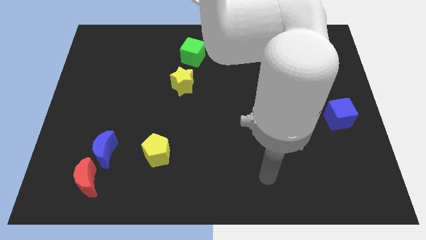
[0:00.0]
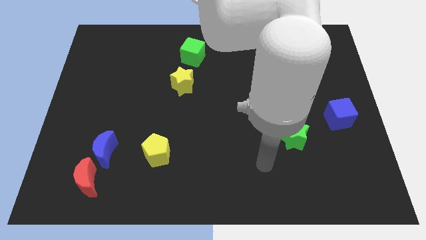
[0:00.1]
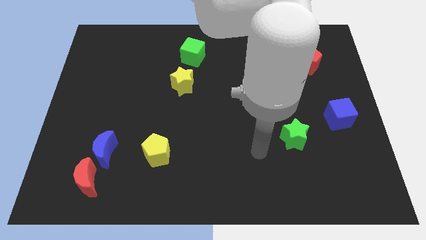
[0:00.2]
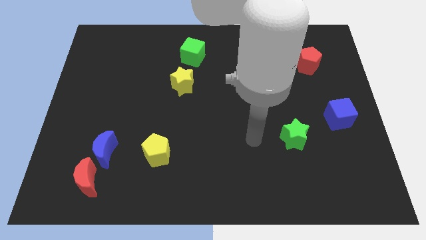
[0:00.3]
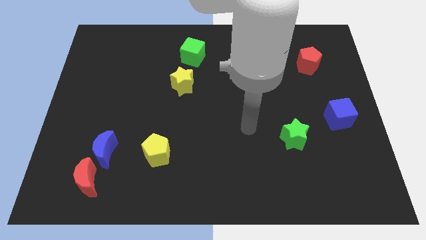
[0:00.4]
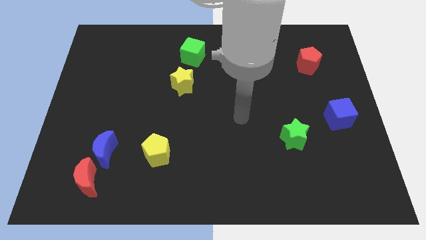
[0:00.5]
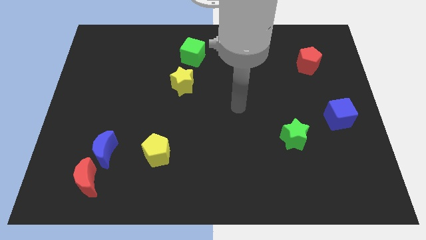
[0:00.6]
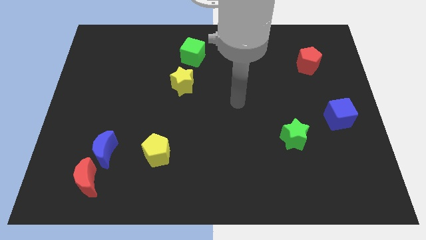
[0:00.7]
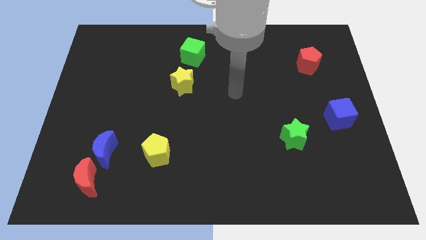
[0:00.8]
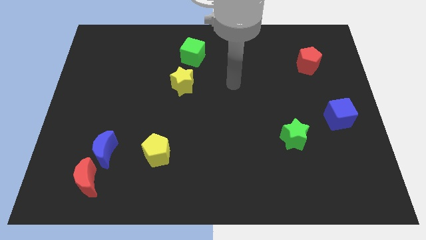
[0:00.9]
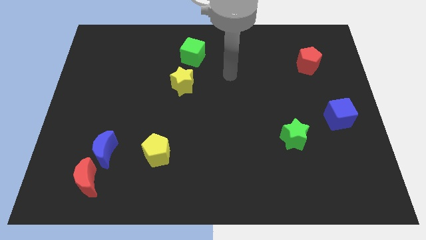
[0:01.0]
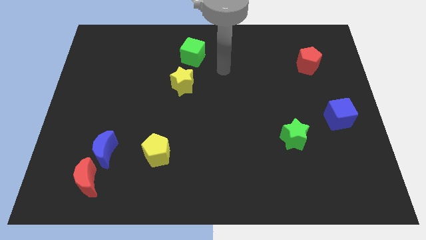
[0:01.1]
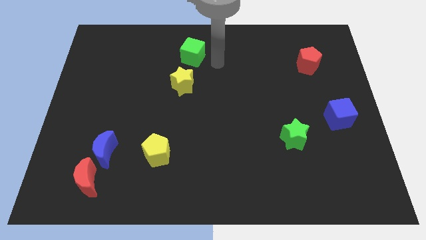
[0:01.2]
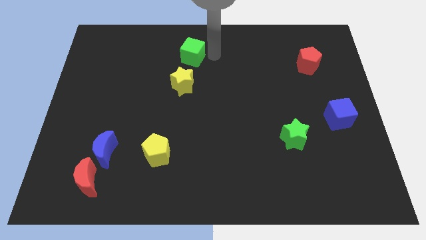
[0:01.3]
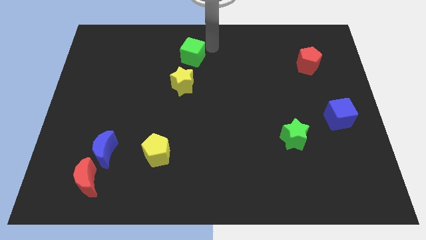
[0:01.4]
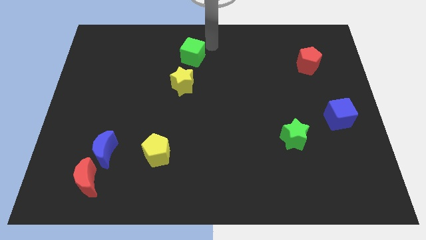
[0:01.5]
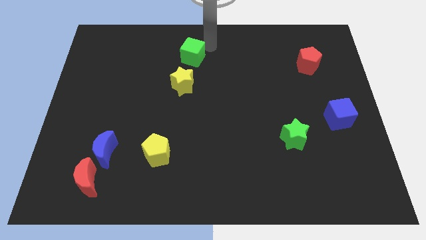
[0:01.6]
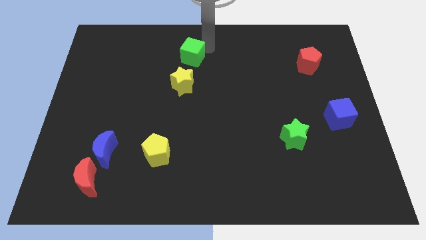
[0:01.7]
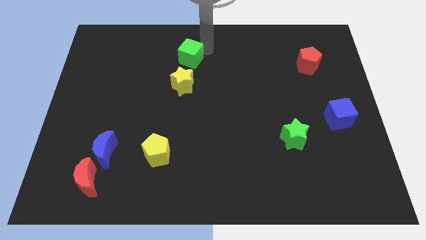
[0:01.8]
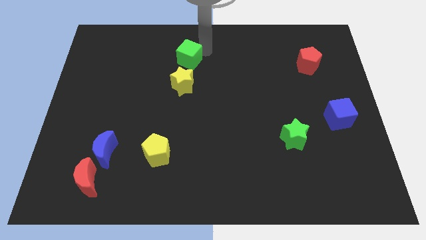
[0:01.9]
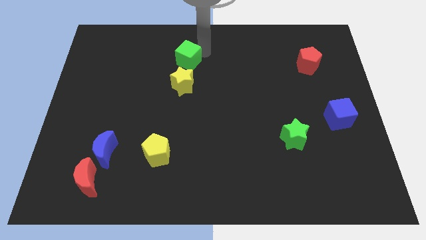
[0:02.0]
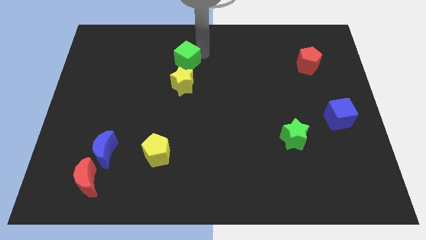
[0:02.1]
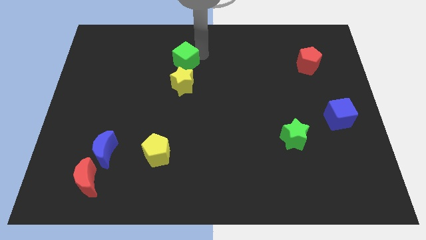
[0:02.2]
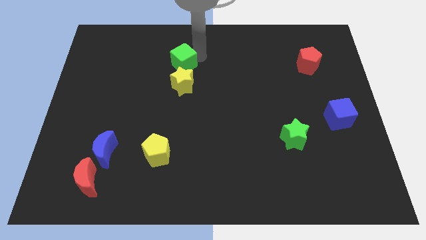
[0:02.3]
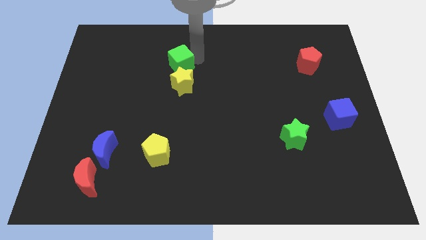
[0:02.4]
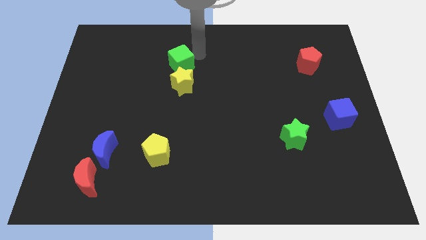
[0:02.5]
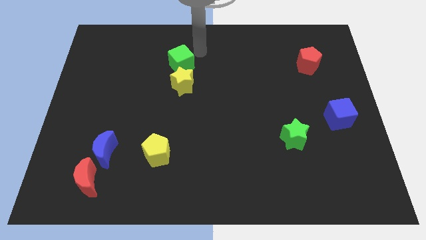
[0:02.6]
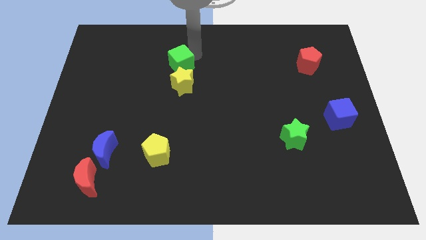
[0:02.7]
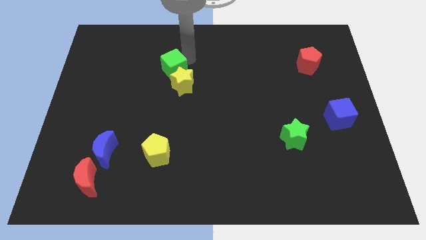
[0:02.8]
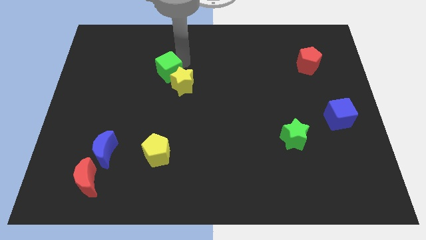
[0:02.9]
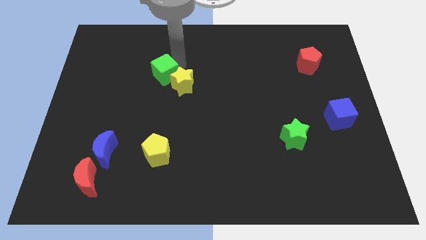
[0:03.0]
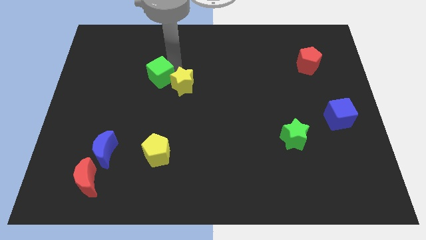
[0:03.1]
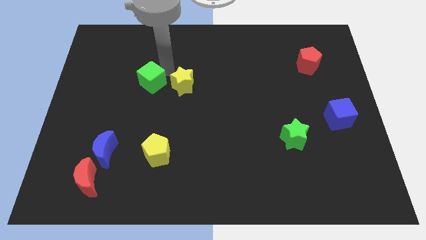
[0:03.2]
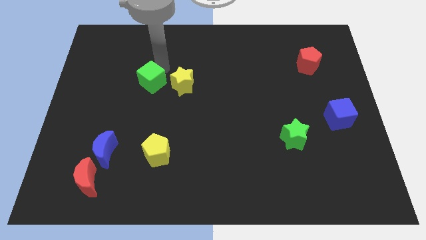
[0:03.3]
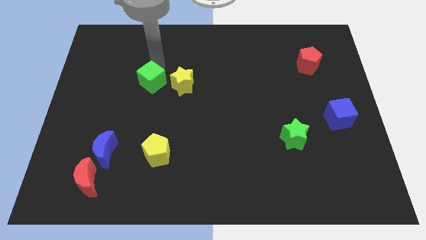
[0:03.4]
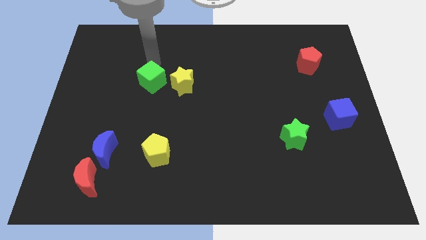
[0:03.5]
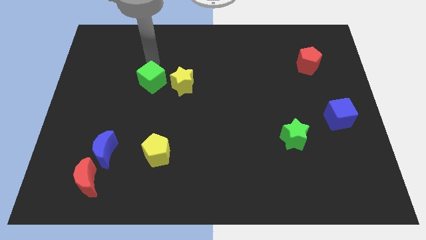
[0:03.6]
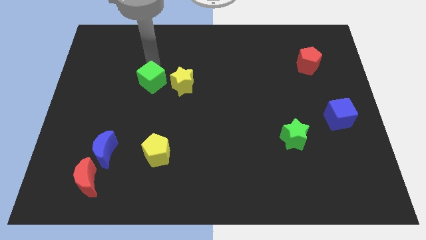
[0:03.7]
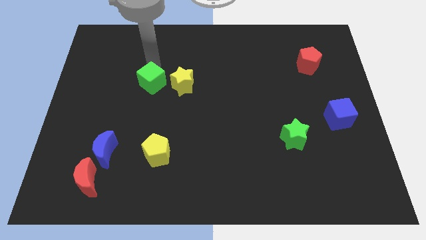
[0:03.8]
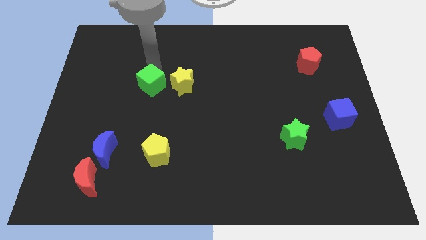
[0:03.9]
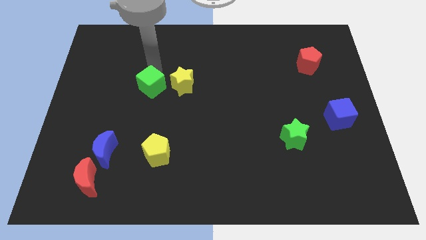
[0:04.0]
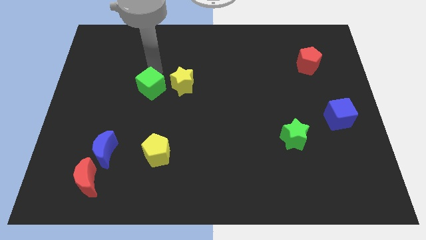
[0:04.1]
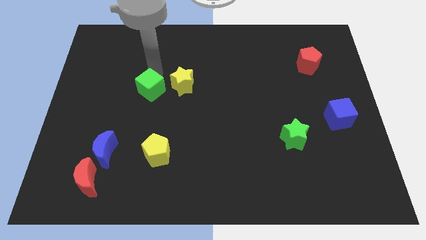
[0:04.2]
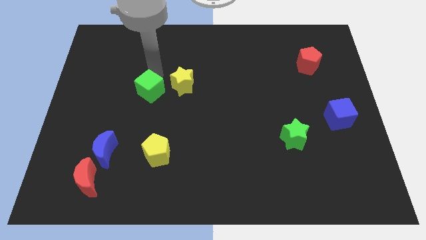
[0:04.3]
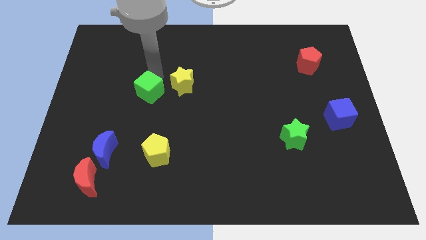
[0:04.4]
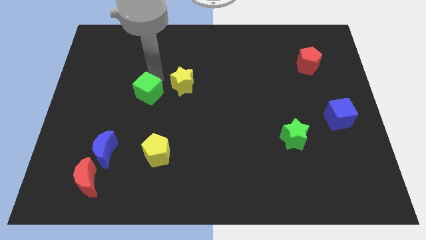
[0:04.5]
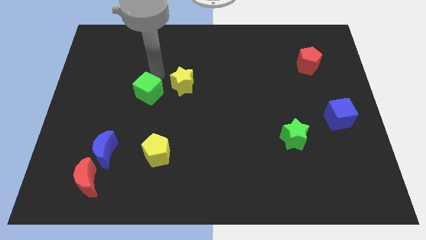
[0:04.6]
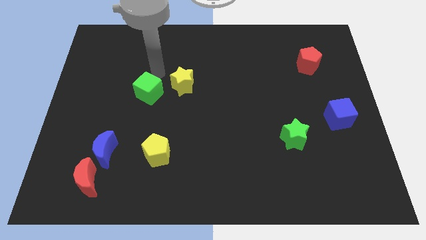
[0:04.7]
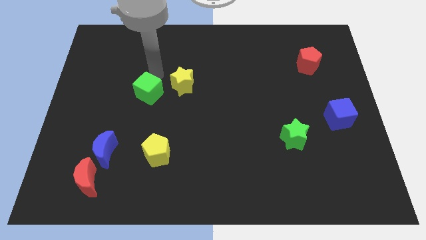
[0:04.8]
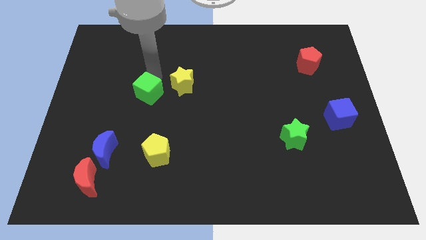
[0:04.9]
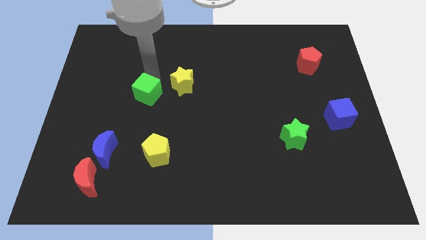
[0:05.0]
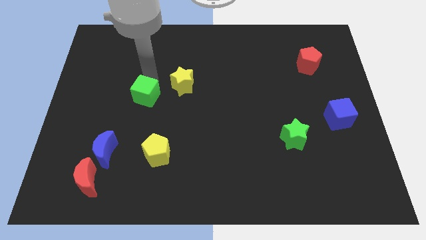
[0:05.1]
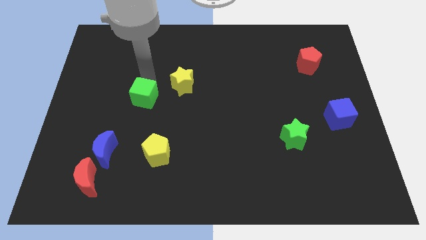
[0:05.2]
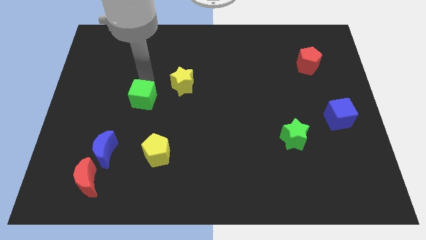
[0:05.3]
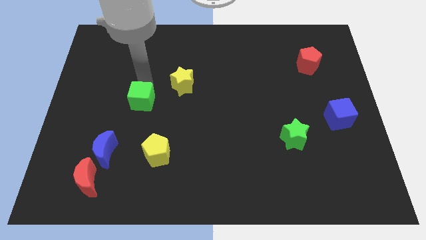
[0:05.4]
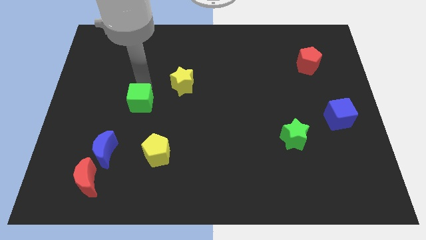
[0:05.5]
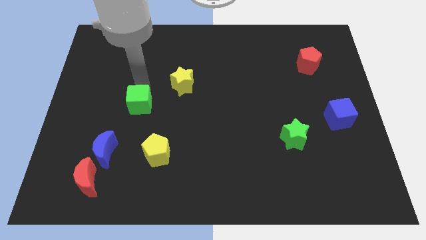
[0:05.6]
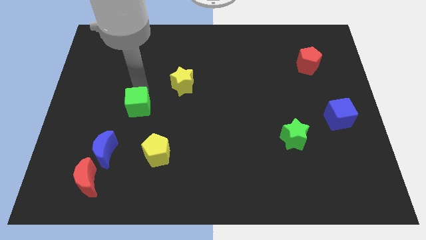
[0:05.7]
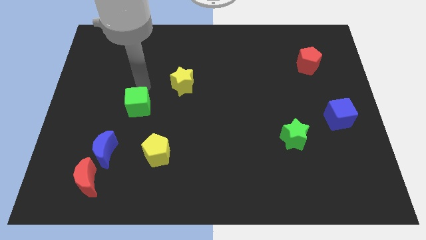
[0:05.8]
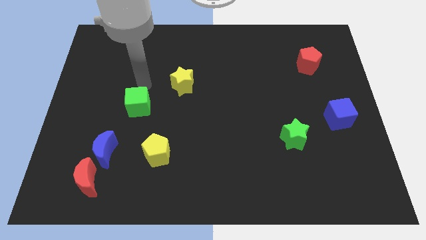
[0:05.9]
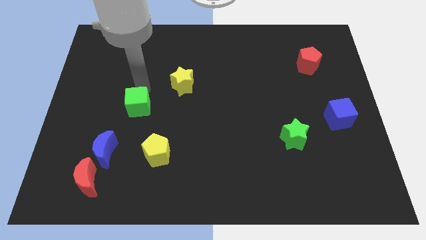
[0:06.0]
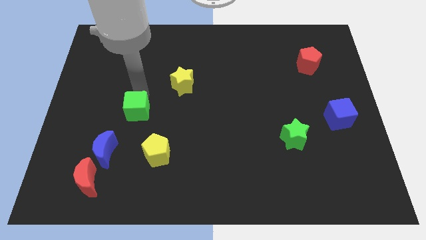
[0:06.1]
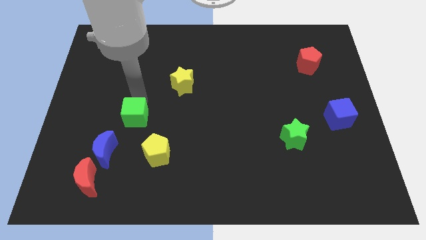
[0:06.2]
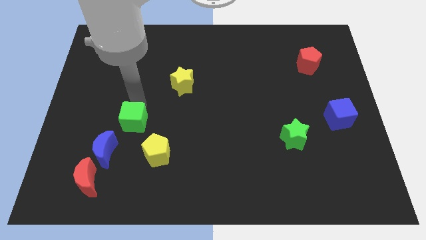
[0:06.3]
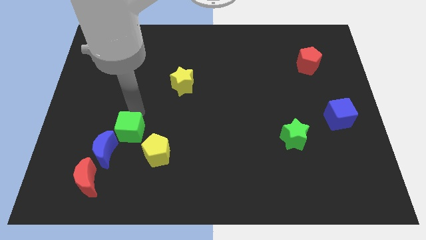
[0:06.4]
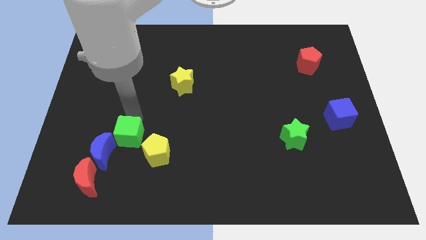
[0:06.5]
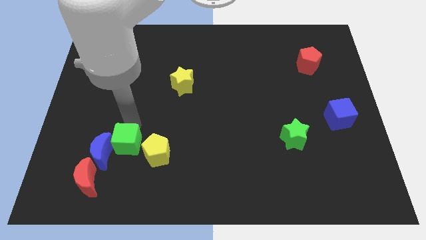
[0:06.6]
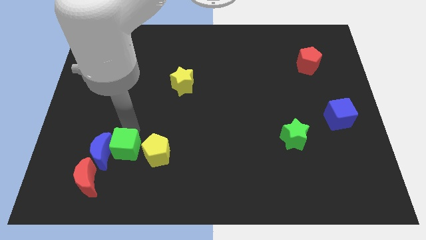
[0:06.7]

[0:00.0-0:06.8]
move the green cube to the bottom right side of the blue moon
